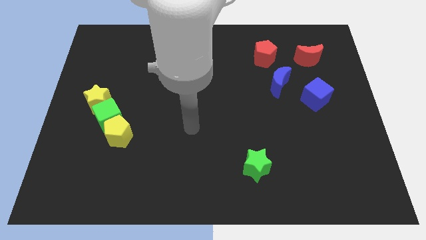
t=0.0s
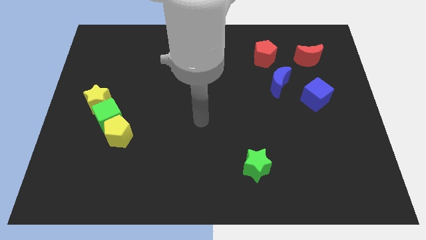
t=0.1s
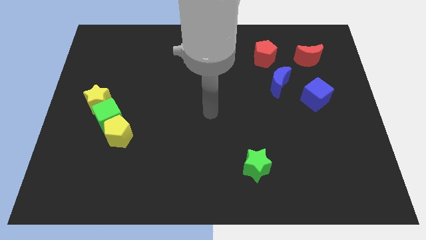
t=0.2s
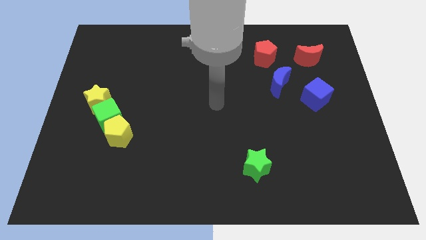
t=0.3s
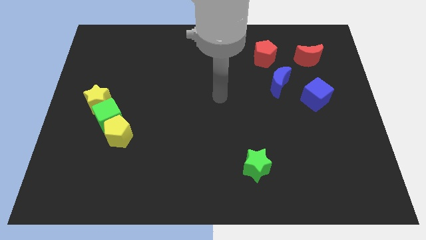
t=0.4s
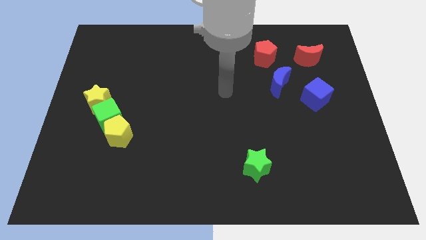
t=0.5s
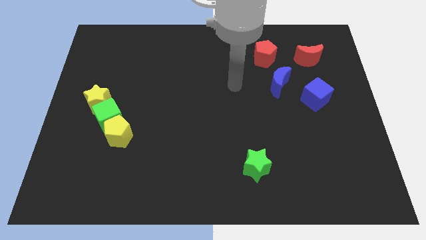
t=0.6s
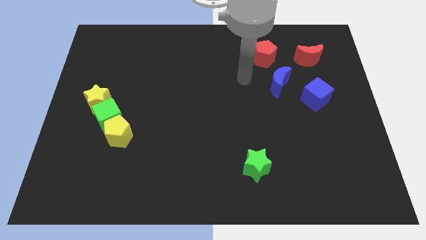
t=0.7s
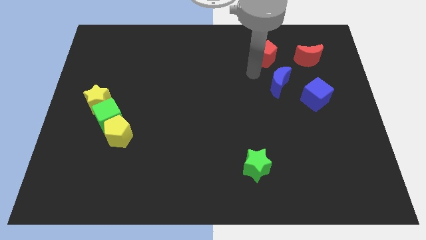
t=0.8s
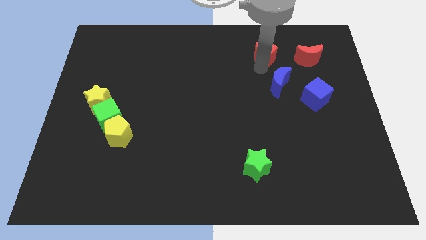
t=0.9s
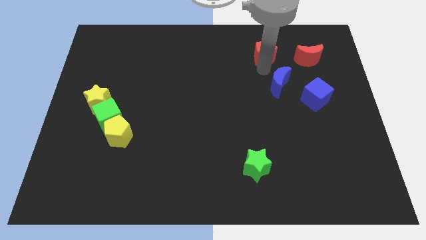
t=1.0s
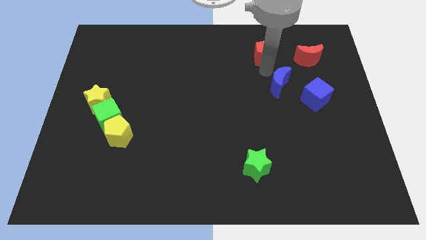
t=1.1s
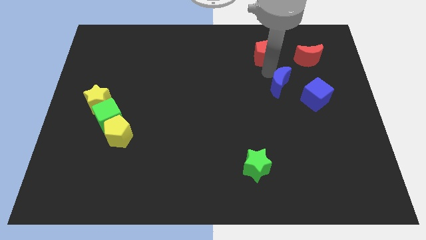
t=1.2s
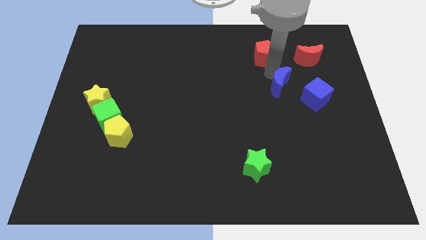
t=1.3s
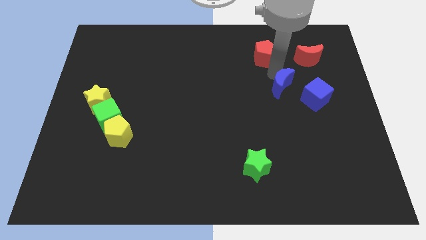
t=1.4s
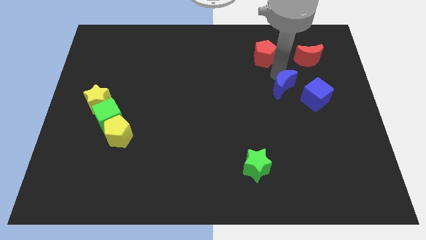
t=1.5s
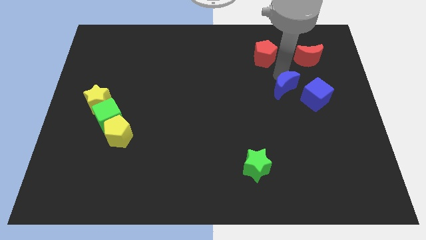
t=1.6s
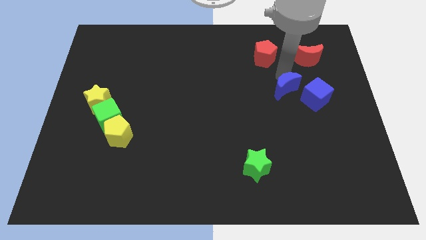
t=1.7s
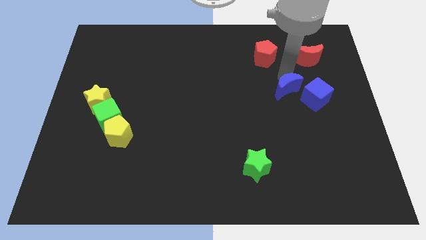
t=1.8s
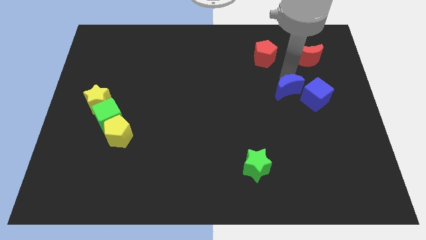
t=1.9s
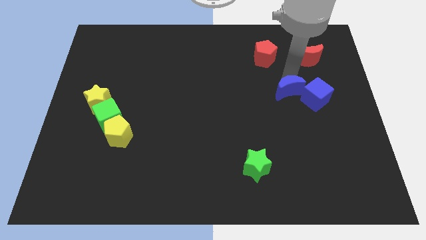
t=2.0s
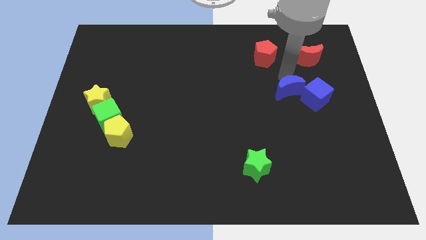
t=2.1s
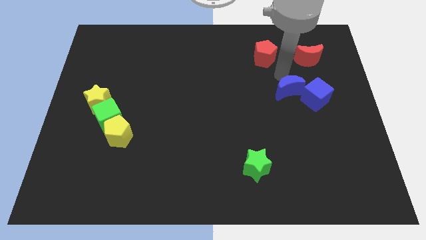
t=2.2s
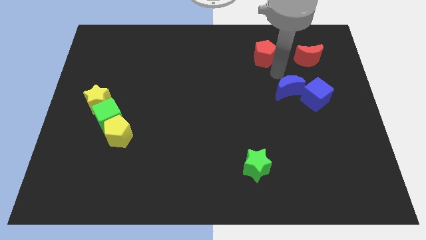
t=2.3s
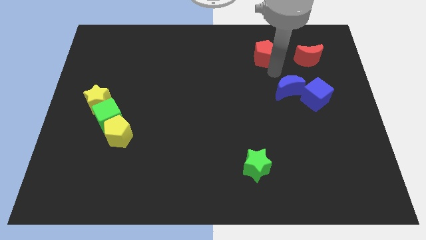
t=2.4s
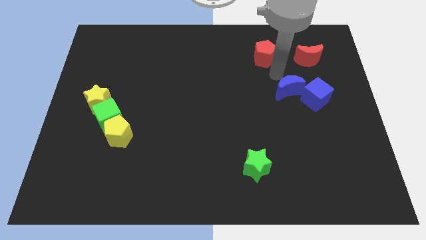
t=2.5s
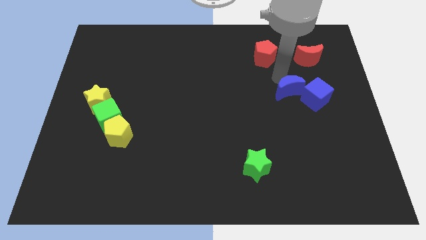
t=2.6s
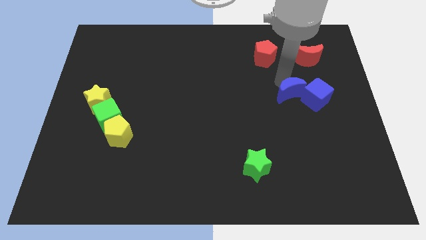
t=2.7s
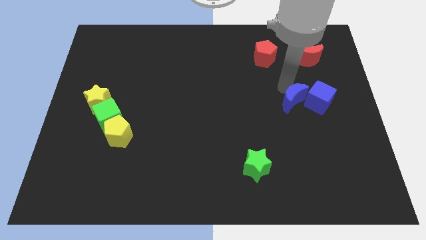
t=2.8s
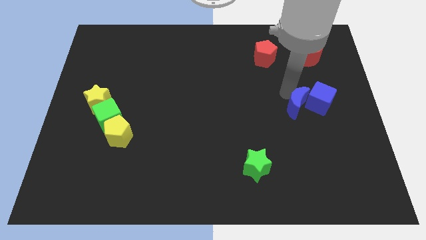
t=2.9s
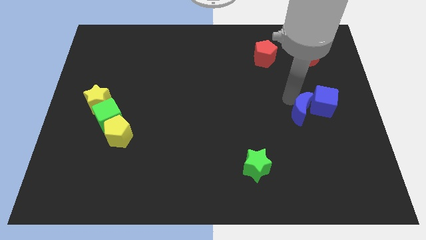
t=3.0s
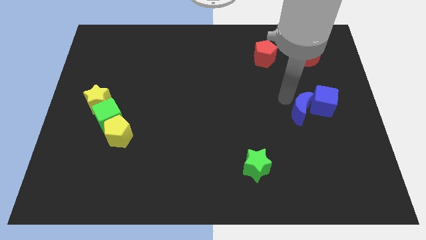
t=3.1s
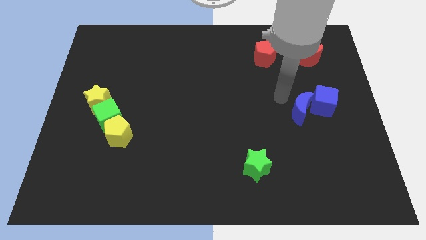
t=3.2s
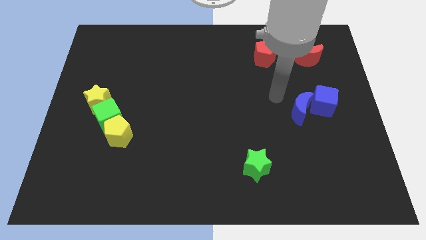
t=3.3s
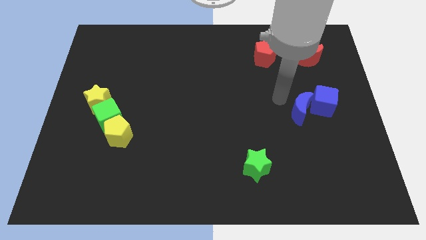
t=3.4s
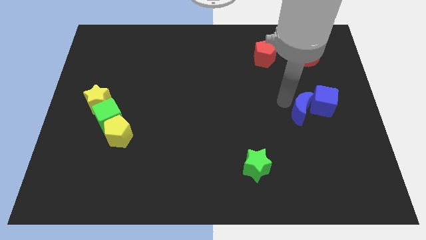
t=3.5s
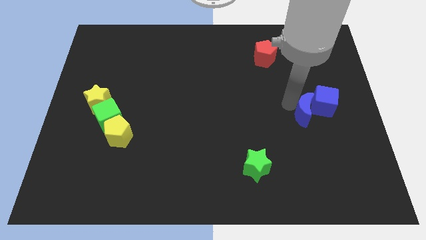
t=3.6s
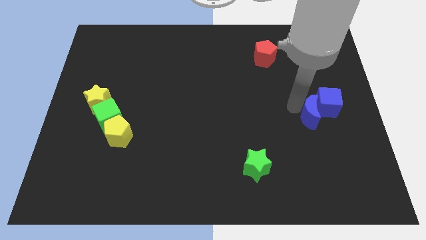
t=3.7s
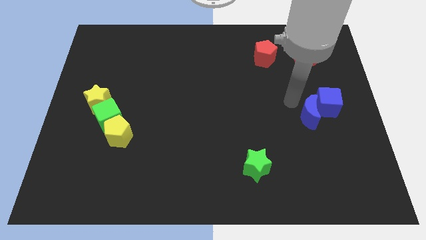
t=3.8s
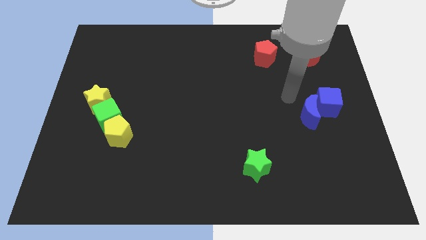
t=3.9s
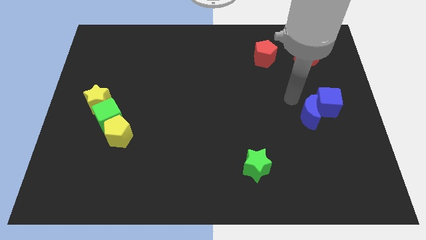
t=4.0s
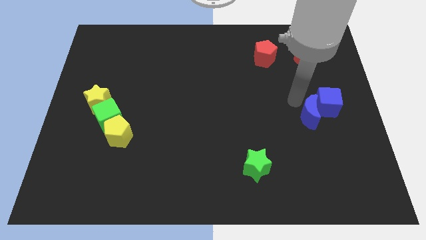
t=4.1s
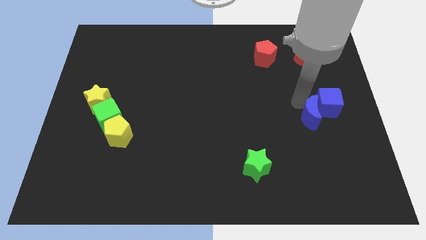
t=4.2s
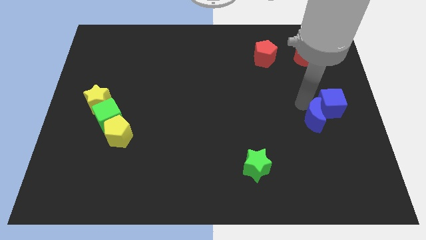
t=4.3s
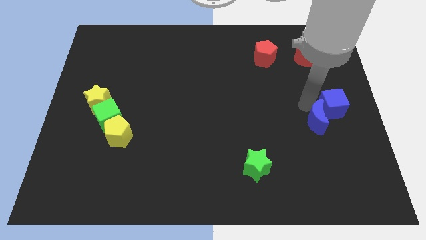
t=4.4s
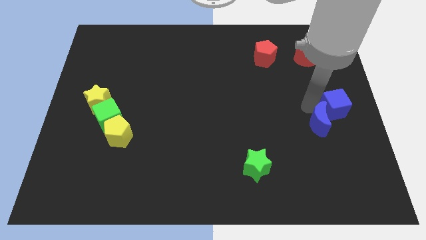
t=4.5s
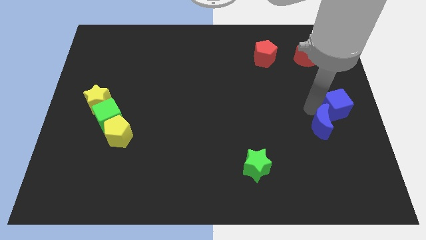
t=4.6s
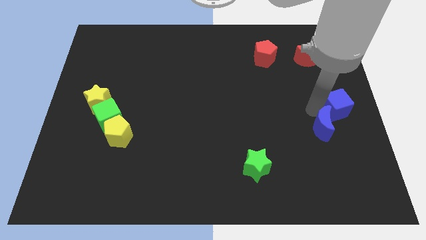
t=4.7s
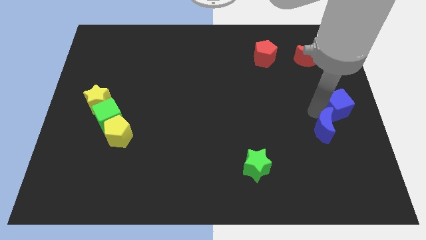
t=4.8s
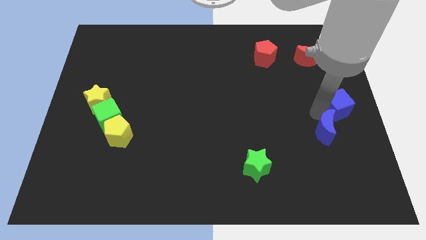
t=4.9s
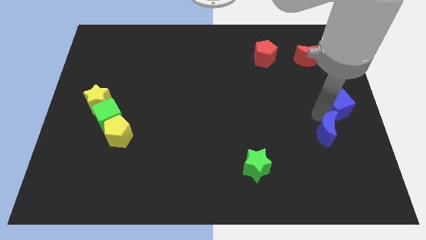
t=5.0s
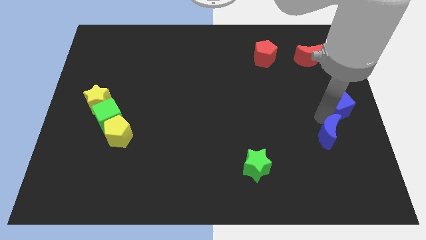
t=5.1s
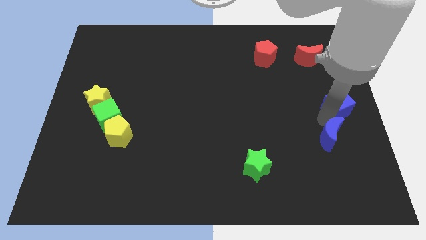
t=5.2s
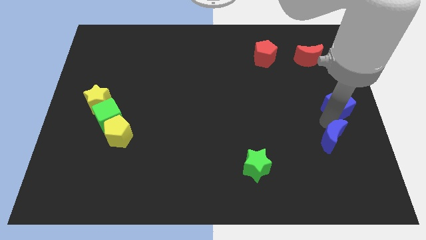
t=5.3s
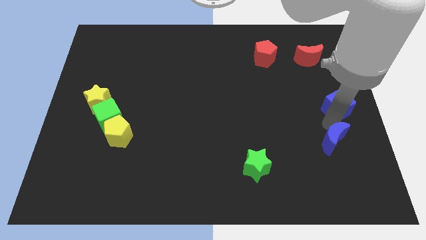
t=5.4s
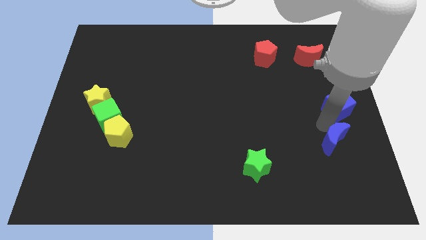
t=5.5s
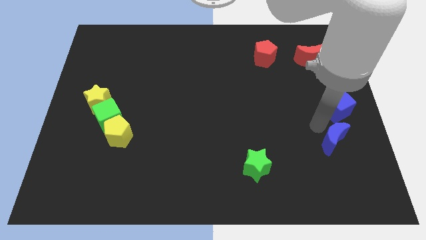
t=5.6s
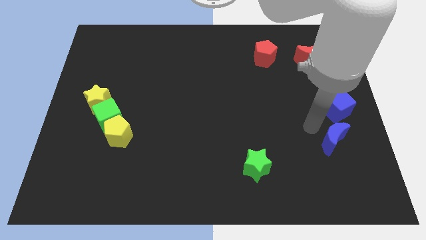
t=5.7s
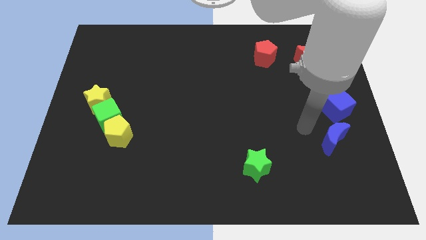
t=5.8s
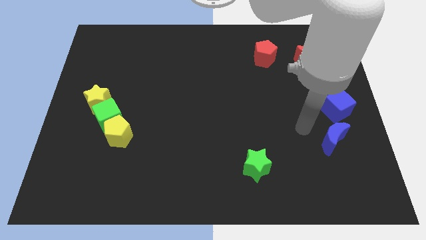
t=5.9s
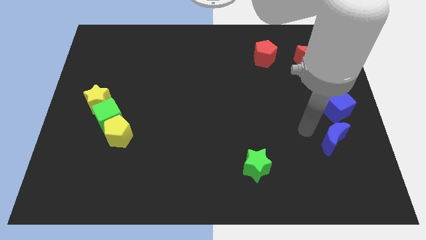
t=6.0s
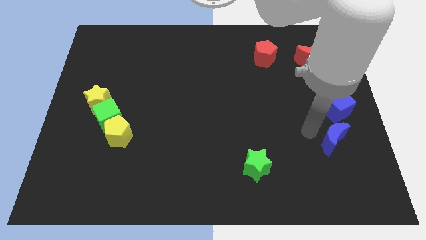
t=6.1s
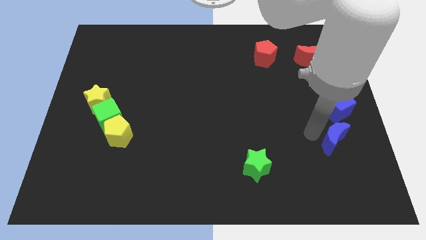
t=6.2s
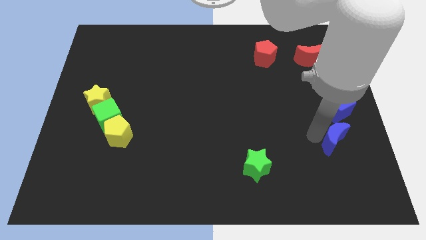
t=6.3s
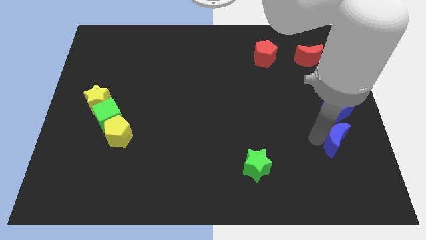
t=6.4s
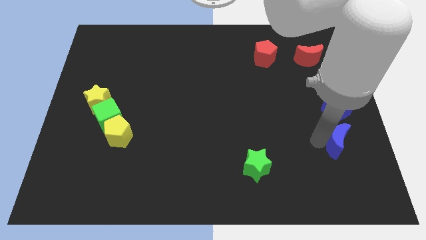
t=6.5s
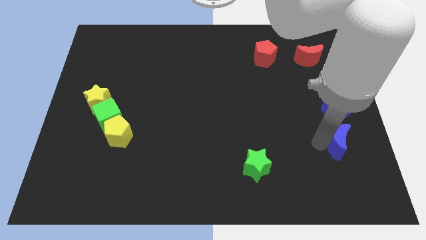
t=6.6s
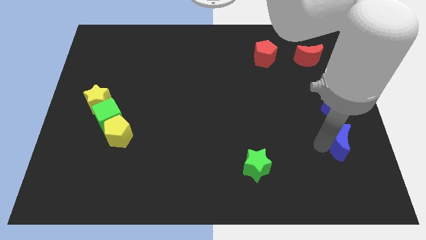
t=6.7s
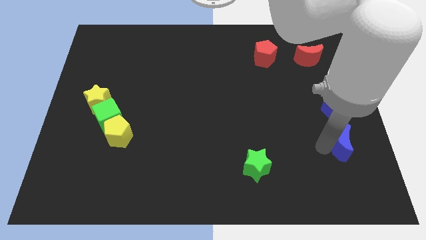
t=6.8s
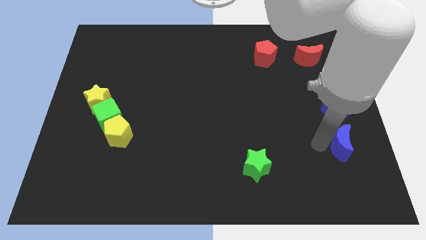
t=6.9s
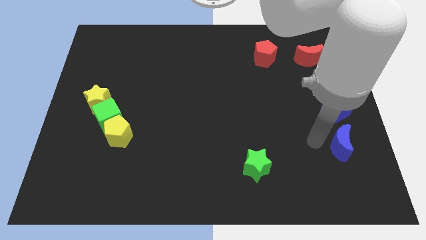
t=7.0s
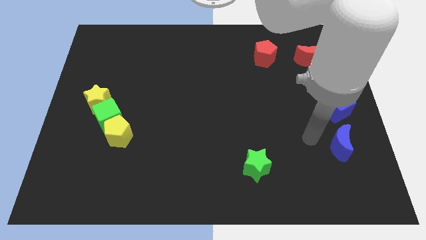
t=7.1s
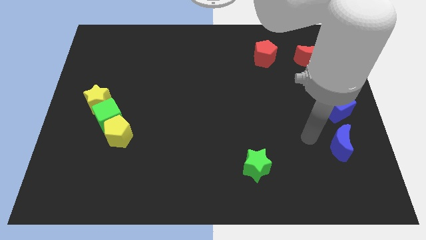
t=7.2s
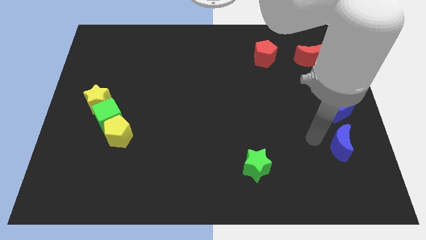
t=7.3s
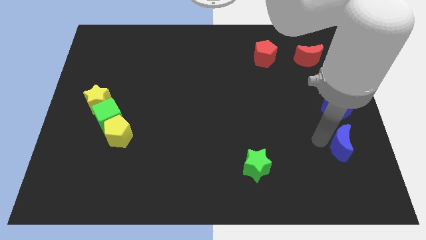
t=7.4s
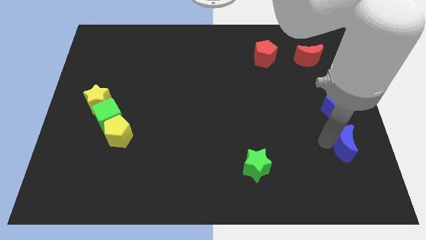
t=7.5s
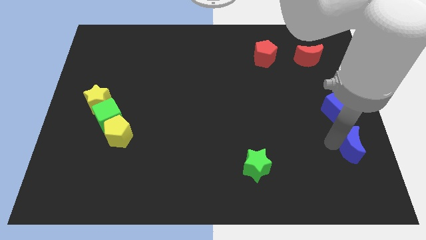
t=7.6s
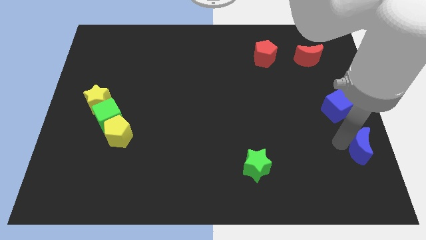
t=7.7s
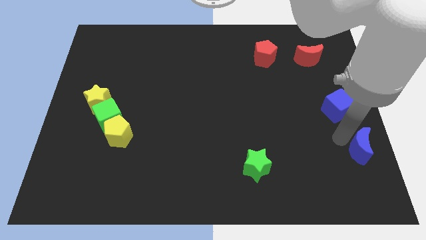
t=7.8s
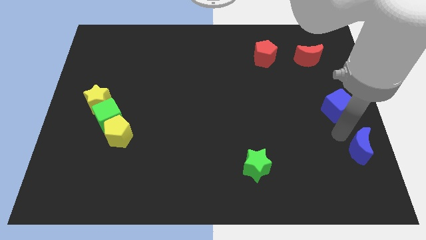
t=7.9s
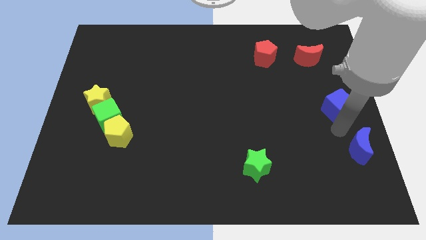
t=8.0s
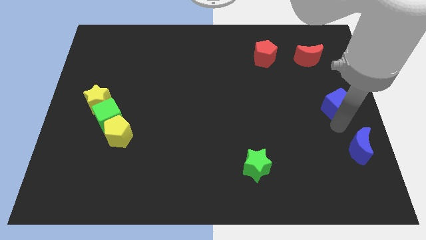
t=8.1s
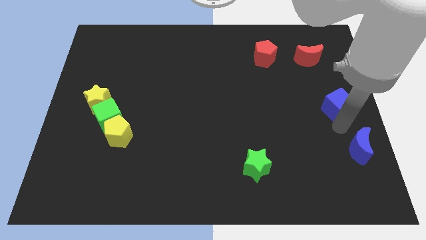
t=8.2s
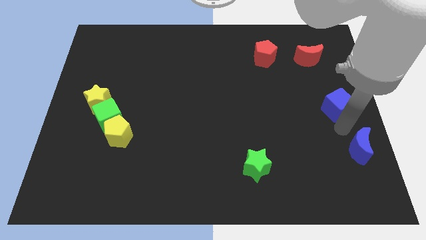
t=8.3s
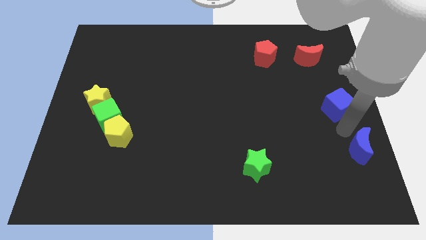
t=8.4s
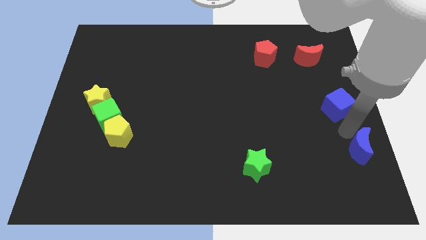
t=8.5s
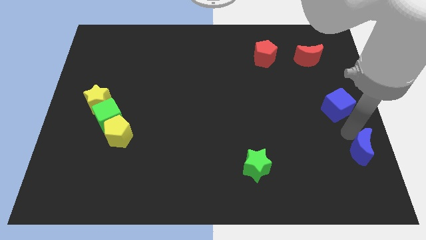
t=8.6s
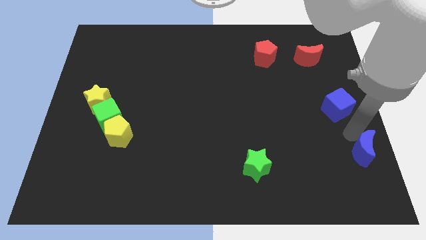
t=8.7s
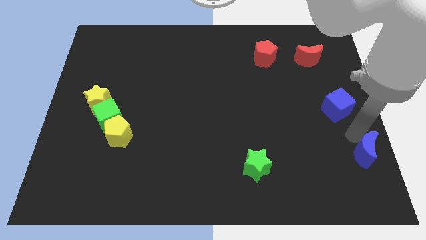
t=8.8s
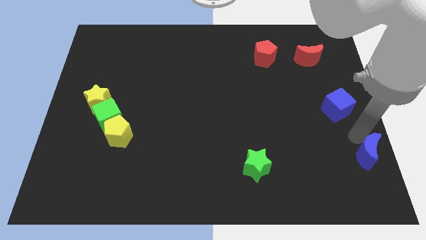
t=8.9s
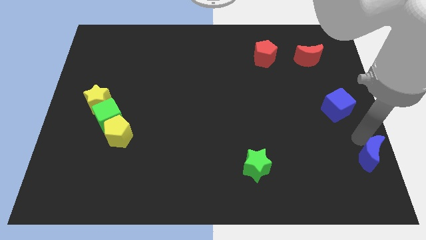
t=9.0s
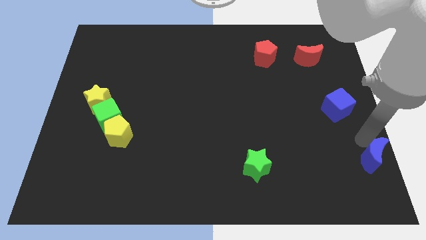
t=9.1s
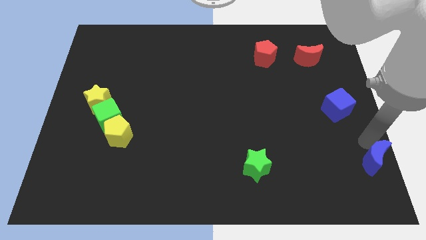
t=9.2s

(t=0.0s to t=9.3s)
push the blue moon to the bottom right corner
